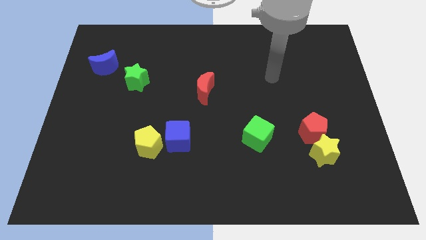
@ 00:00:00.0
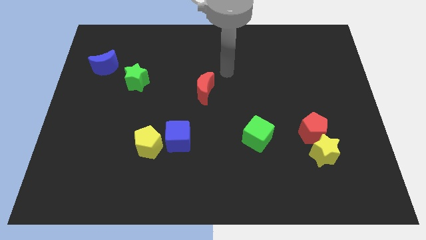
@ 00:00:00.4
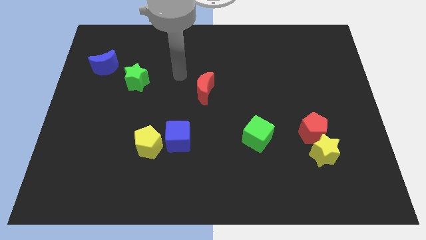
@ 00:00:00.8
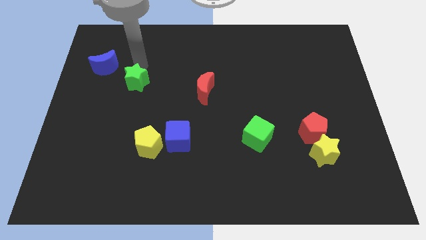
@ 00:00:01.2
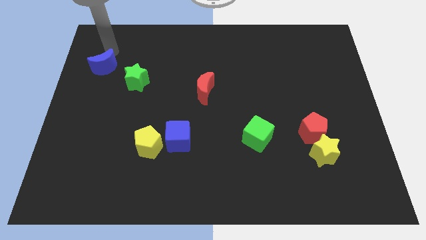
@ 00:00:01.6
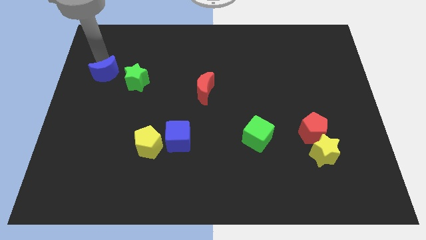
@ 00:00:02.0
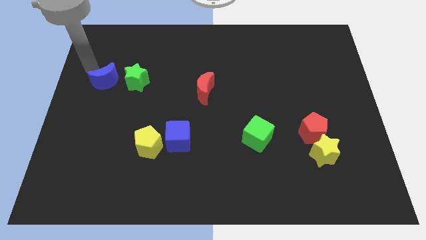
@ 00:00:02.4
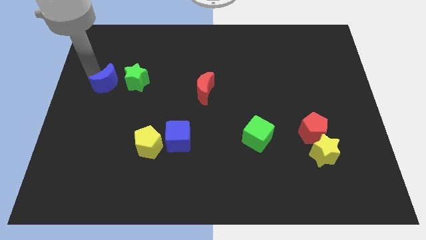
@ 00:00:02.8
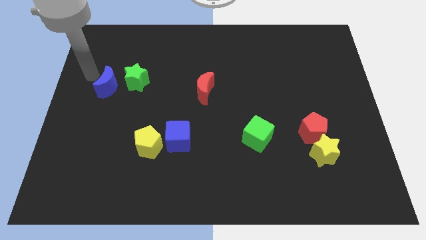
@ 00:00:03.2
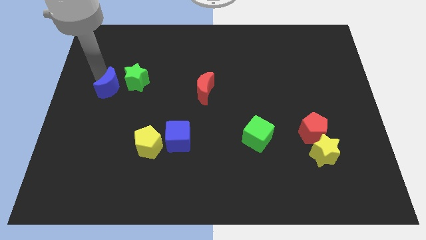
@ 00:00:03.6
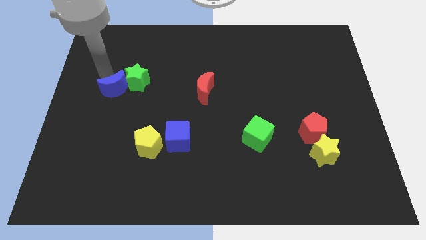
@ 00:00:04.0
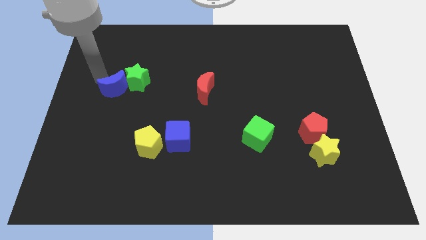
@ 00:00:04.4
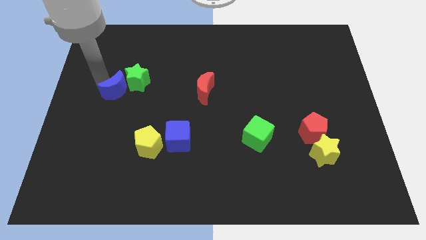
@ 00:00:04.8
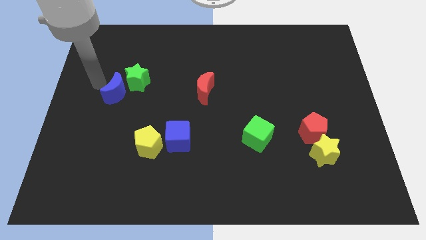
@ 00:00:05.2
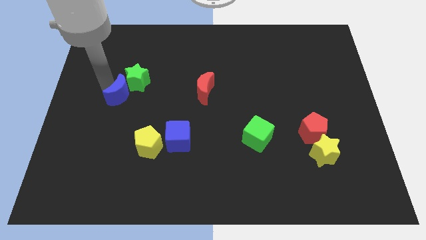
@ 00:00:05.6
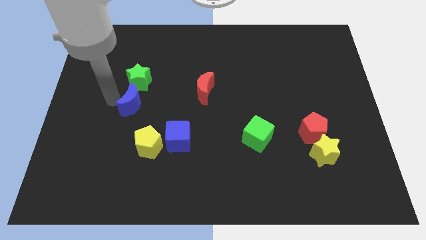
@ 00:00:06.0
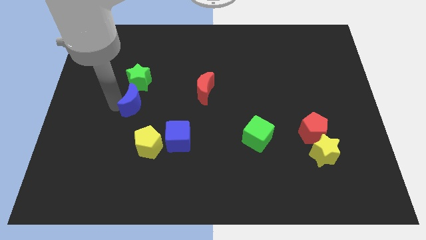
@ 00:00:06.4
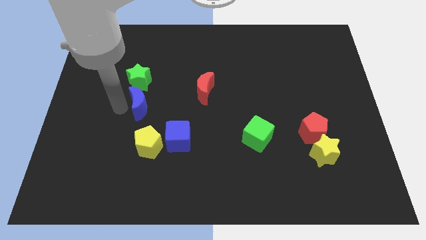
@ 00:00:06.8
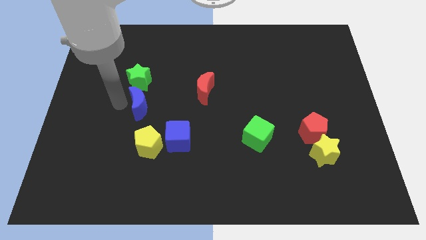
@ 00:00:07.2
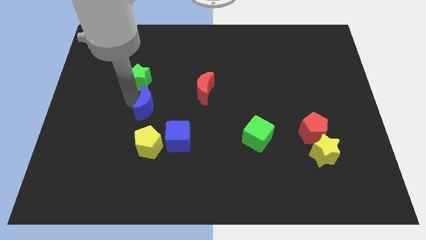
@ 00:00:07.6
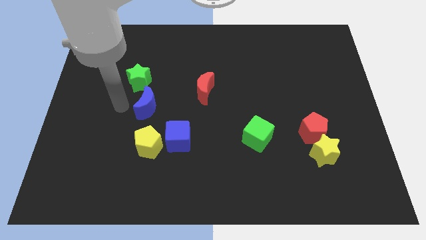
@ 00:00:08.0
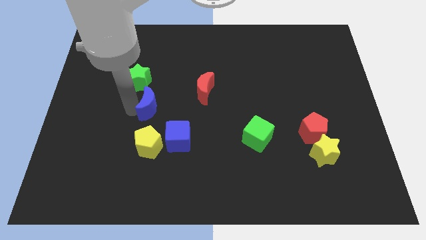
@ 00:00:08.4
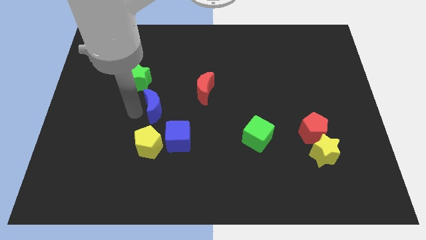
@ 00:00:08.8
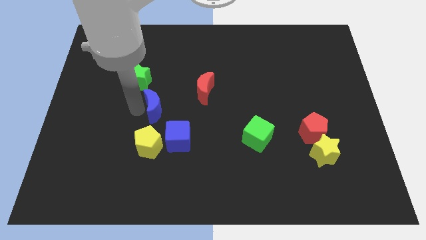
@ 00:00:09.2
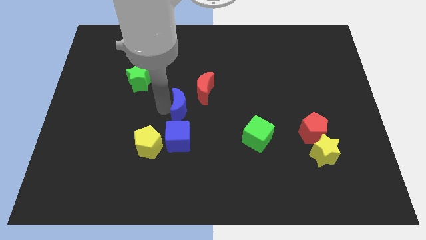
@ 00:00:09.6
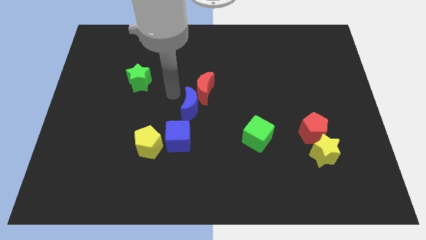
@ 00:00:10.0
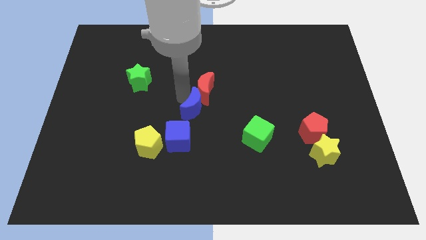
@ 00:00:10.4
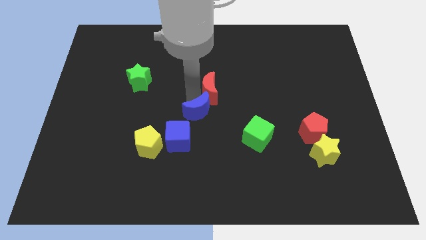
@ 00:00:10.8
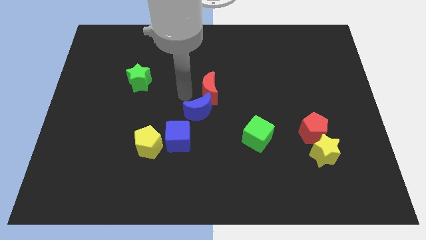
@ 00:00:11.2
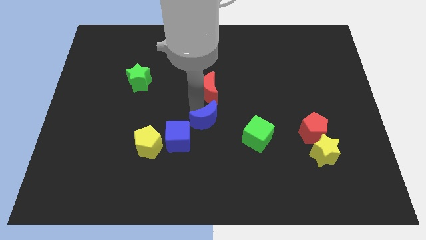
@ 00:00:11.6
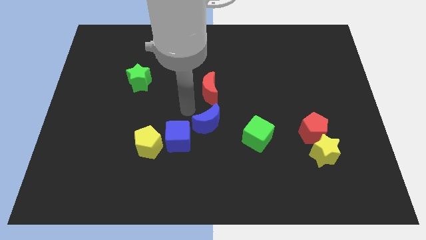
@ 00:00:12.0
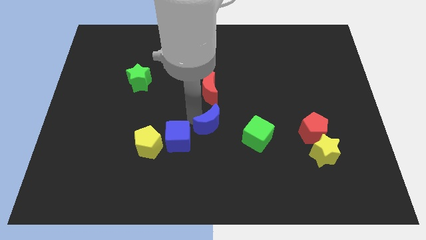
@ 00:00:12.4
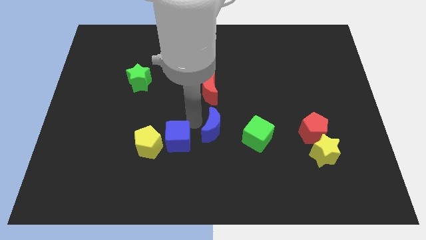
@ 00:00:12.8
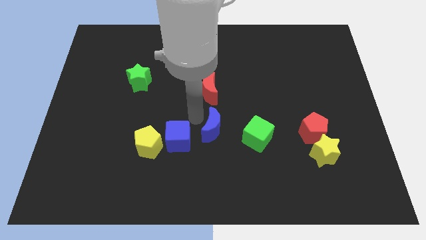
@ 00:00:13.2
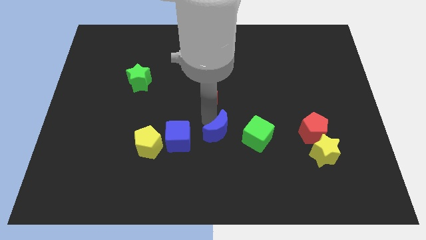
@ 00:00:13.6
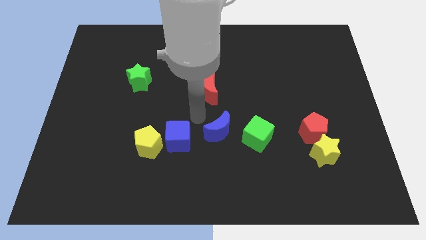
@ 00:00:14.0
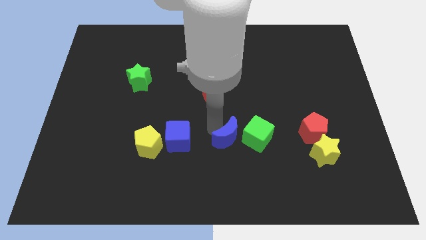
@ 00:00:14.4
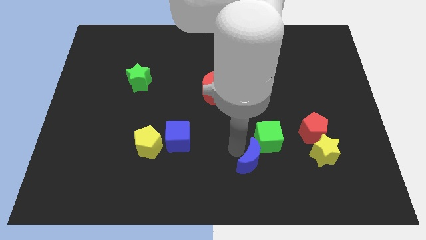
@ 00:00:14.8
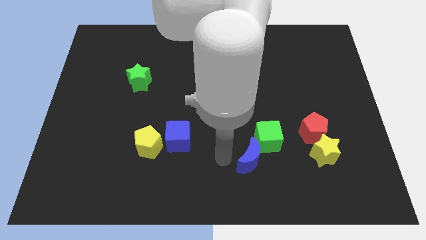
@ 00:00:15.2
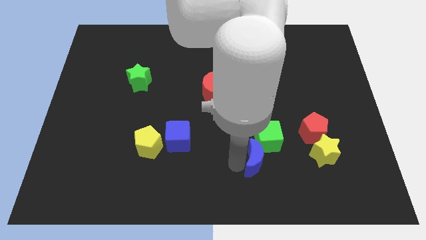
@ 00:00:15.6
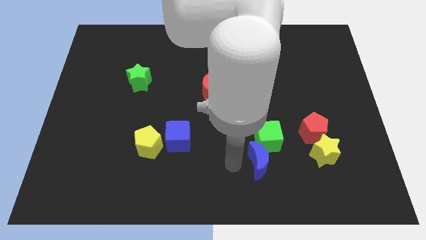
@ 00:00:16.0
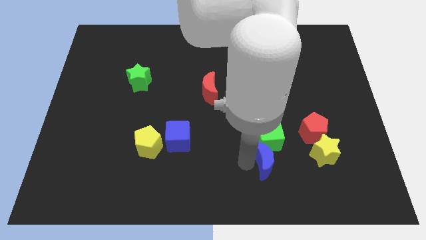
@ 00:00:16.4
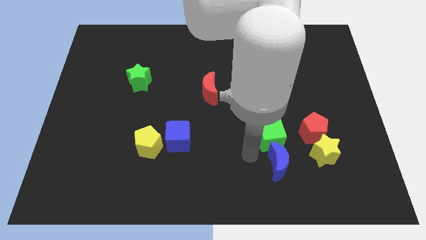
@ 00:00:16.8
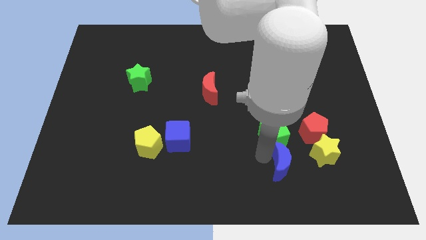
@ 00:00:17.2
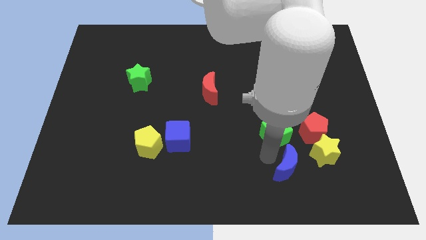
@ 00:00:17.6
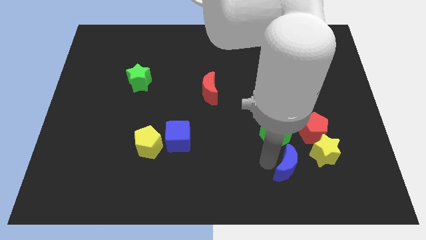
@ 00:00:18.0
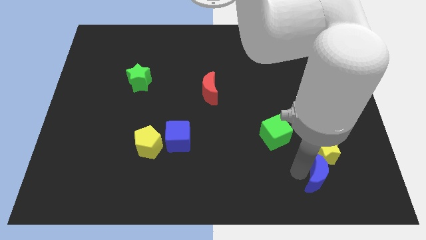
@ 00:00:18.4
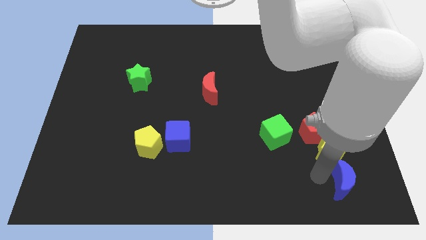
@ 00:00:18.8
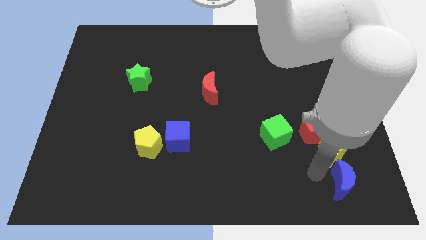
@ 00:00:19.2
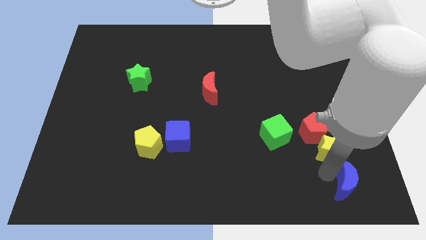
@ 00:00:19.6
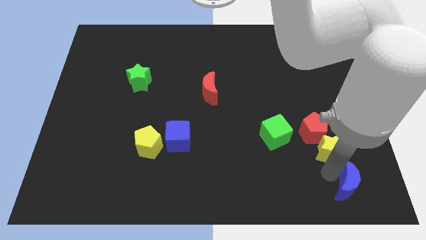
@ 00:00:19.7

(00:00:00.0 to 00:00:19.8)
put the blue moon to the lower right corner
